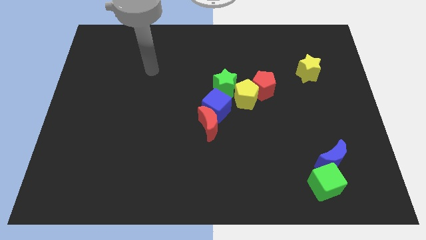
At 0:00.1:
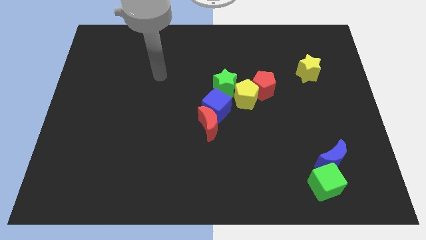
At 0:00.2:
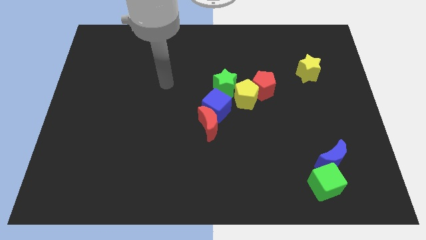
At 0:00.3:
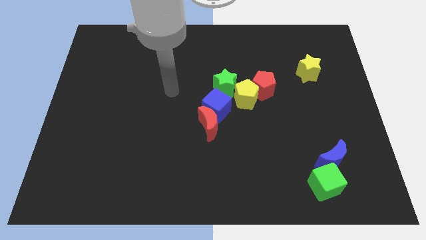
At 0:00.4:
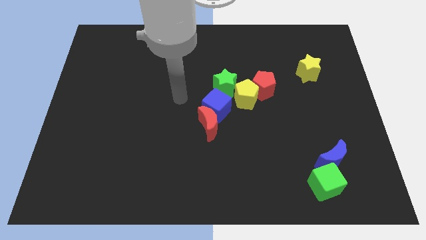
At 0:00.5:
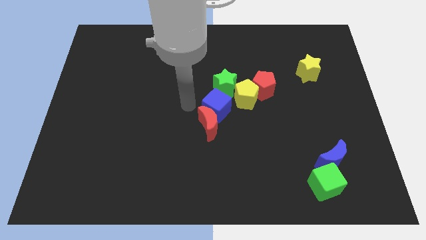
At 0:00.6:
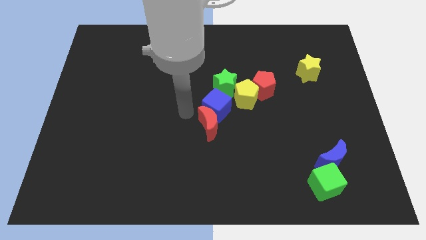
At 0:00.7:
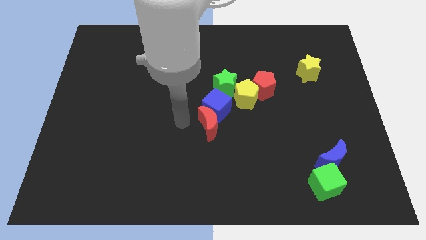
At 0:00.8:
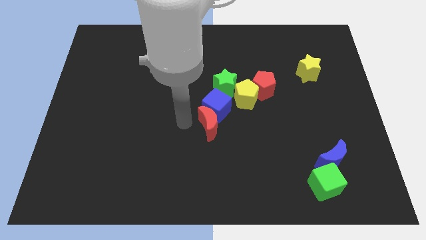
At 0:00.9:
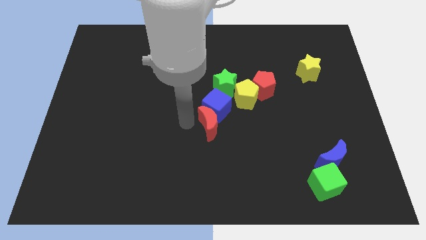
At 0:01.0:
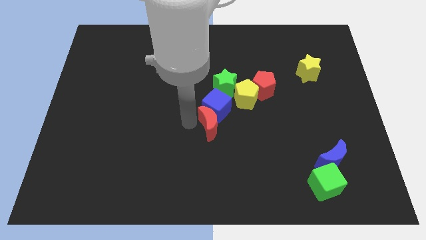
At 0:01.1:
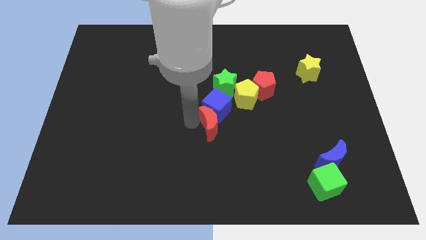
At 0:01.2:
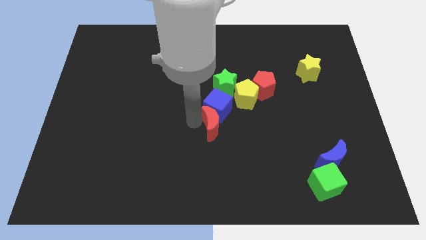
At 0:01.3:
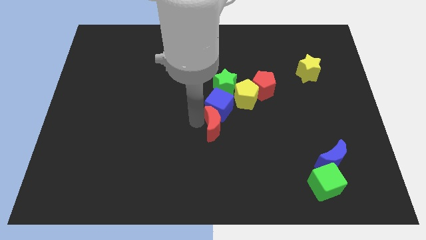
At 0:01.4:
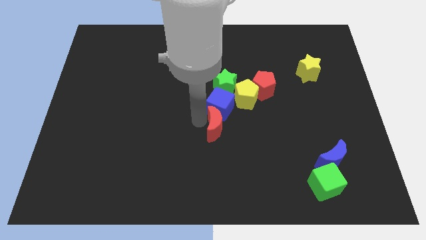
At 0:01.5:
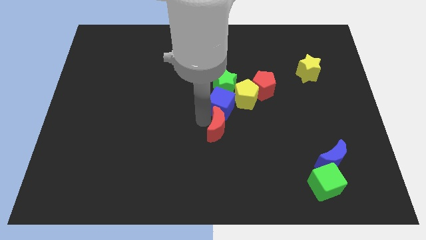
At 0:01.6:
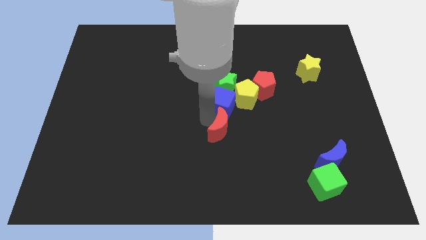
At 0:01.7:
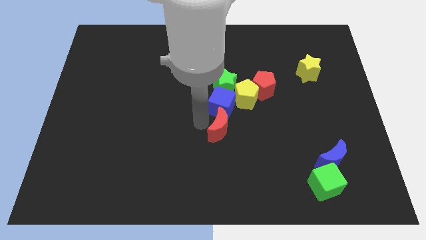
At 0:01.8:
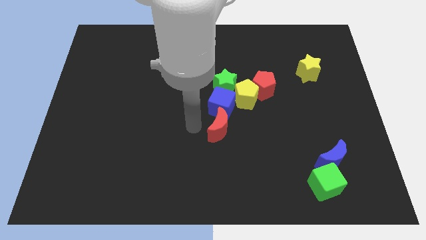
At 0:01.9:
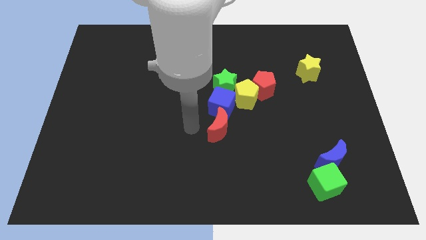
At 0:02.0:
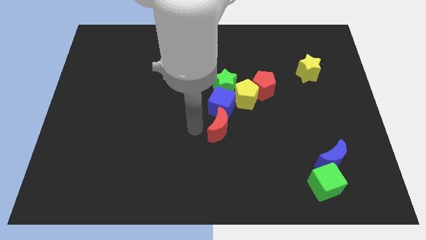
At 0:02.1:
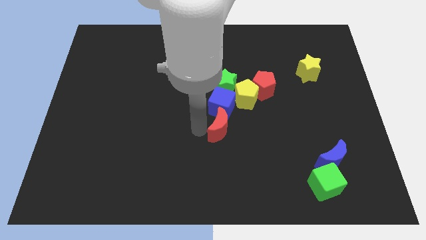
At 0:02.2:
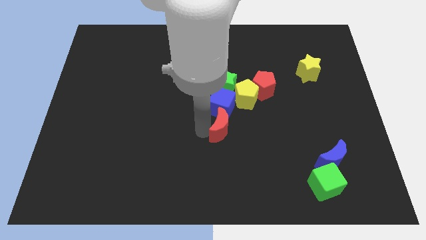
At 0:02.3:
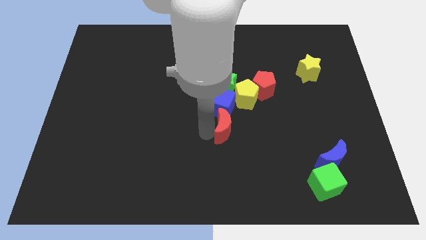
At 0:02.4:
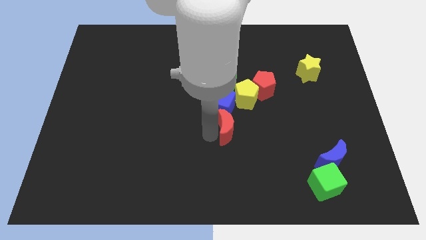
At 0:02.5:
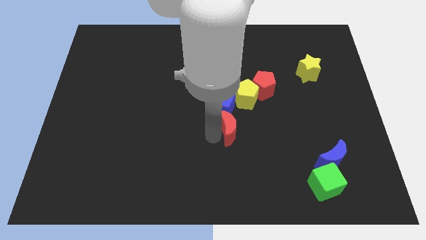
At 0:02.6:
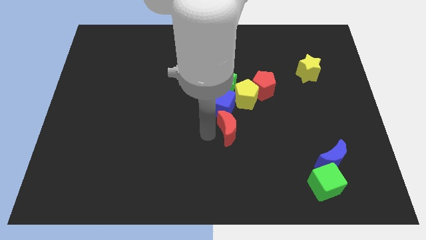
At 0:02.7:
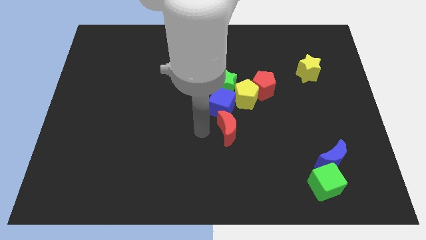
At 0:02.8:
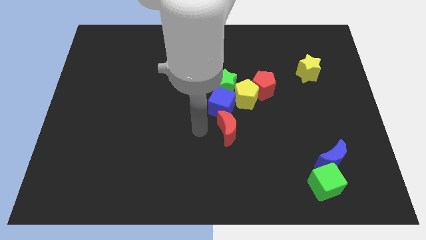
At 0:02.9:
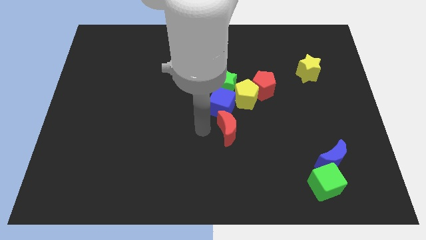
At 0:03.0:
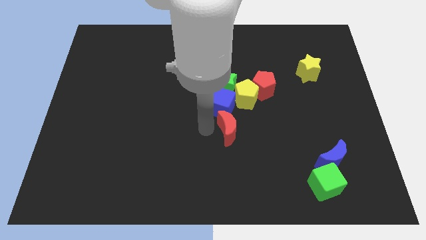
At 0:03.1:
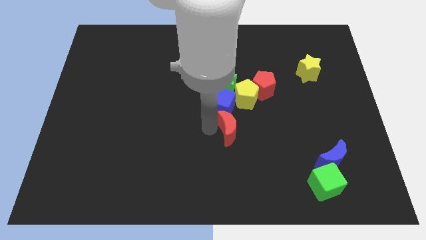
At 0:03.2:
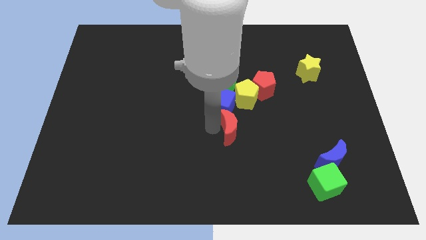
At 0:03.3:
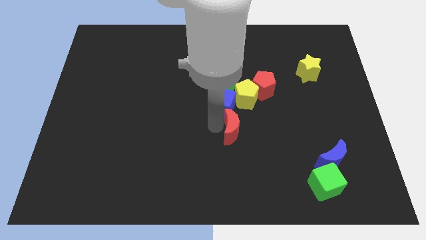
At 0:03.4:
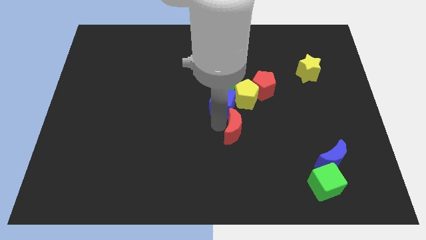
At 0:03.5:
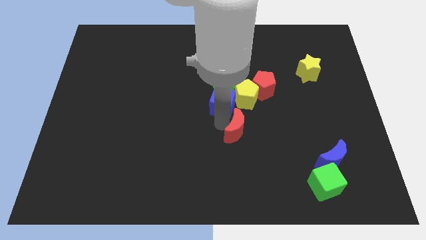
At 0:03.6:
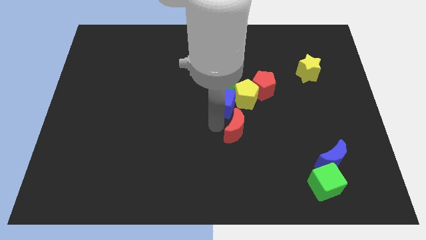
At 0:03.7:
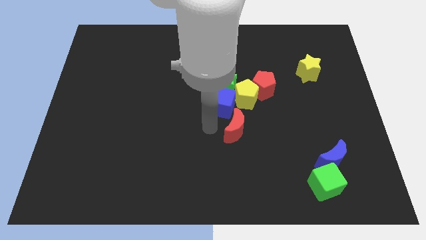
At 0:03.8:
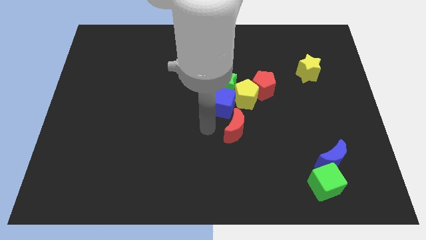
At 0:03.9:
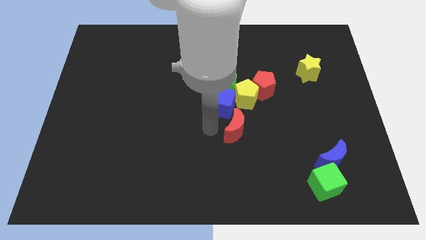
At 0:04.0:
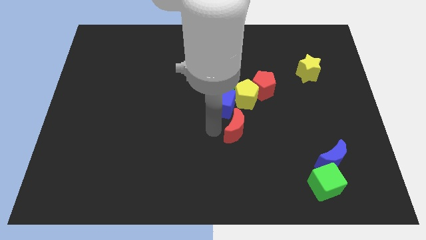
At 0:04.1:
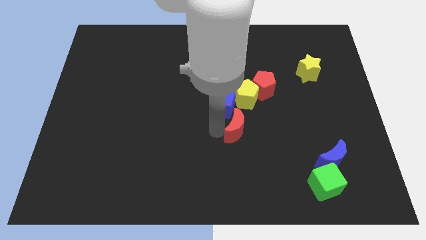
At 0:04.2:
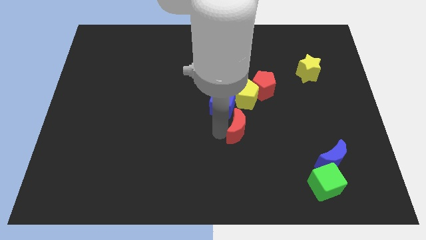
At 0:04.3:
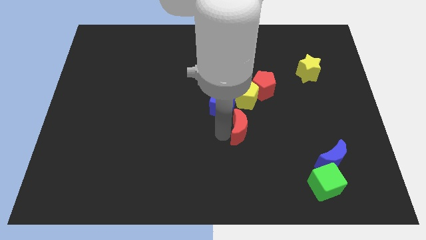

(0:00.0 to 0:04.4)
slide the red moon somewhat right

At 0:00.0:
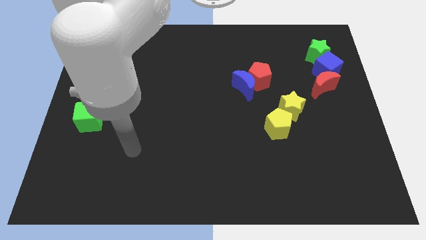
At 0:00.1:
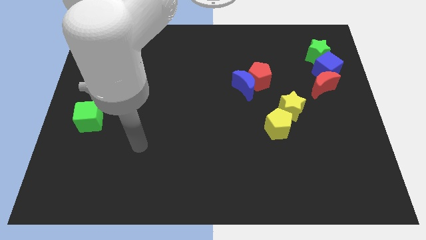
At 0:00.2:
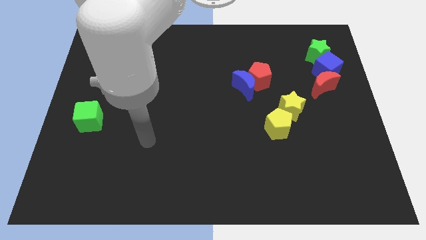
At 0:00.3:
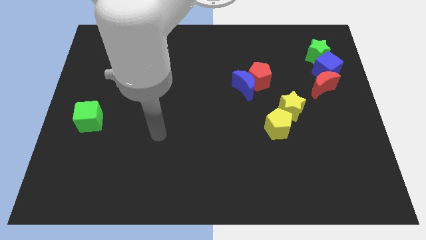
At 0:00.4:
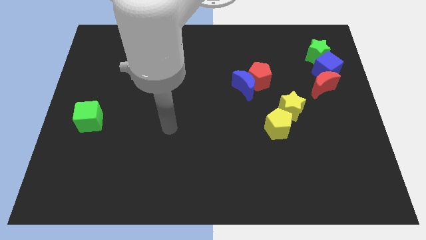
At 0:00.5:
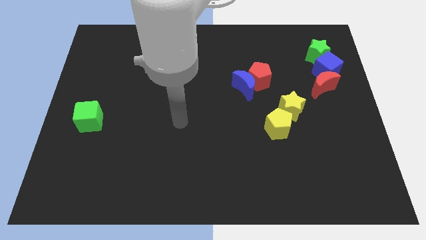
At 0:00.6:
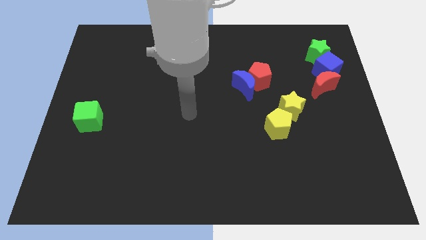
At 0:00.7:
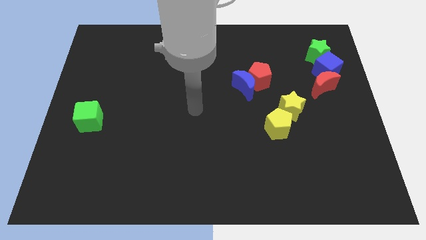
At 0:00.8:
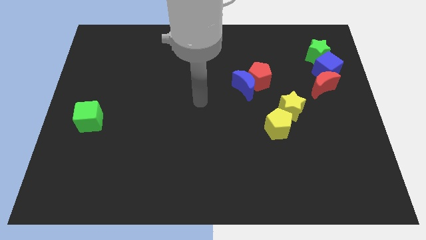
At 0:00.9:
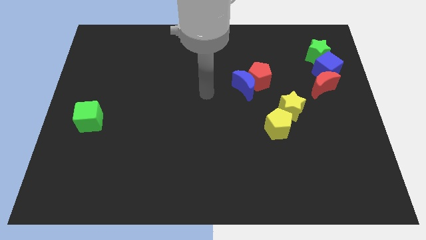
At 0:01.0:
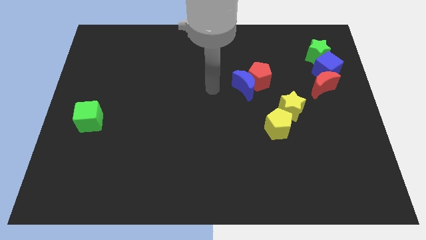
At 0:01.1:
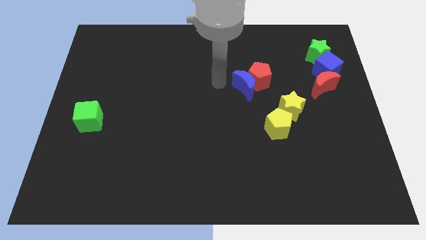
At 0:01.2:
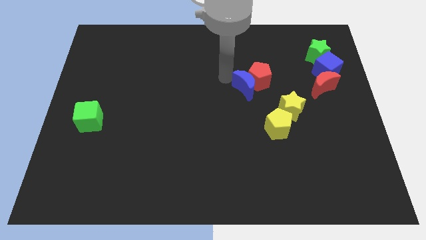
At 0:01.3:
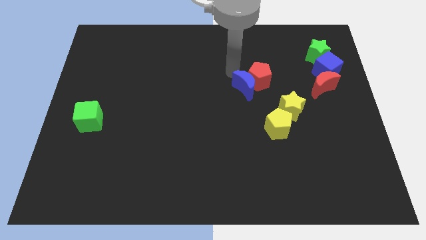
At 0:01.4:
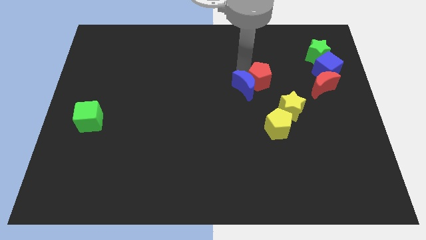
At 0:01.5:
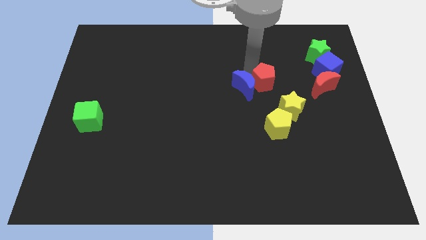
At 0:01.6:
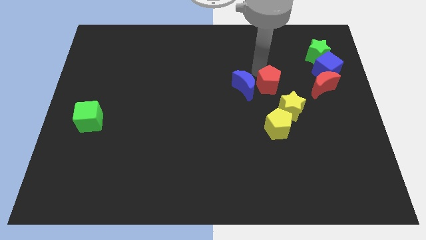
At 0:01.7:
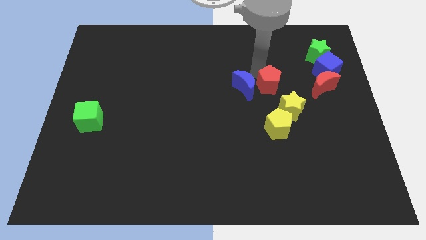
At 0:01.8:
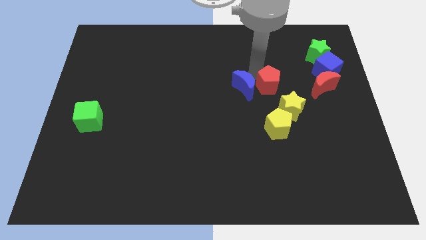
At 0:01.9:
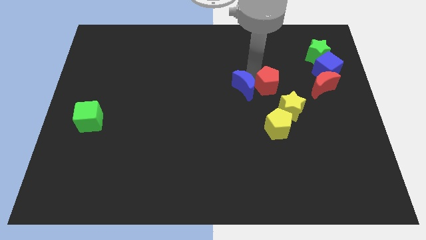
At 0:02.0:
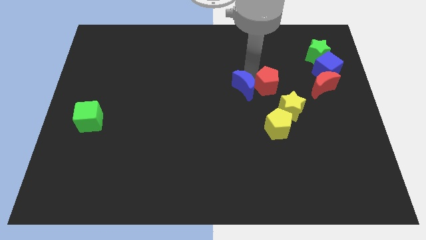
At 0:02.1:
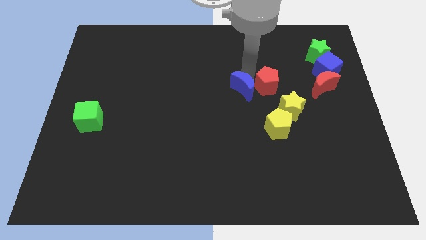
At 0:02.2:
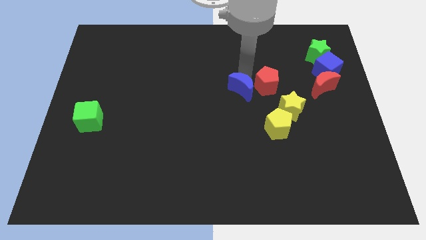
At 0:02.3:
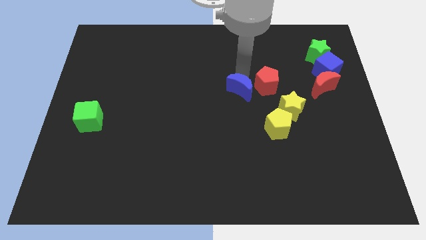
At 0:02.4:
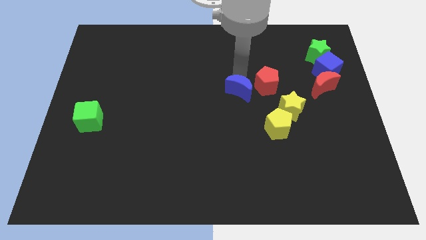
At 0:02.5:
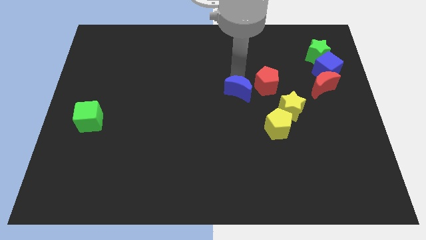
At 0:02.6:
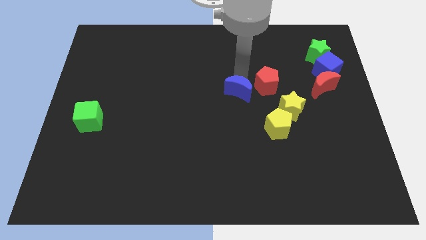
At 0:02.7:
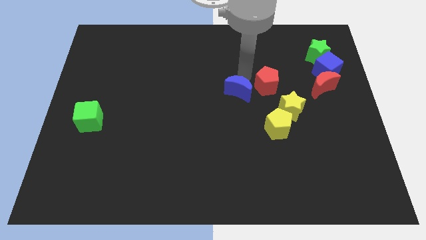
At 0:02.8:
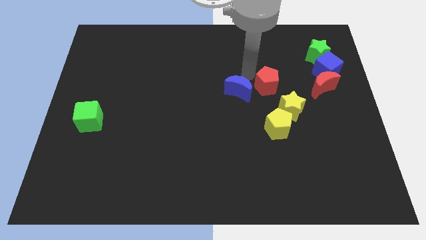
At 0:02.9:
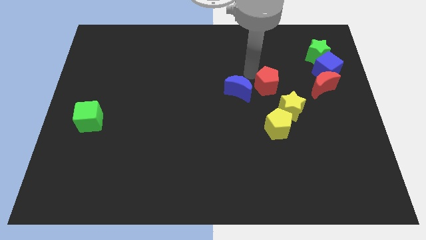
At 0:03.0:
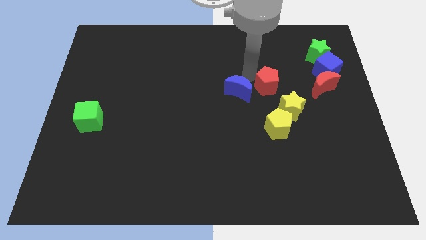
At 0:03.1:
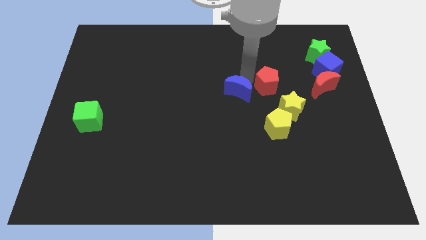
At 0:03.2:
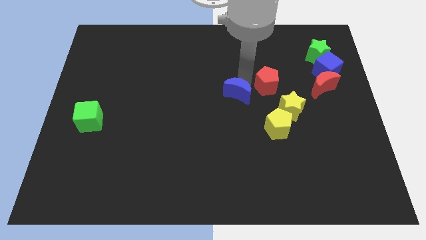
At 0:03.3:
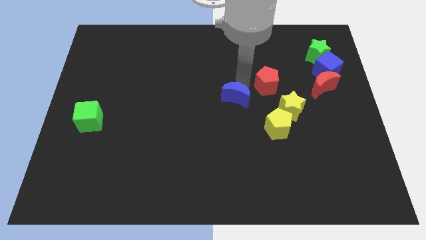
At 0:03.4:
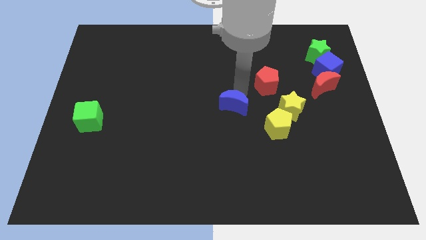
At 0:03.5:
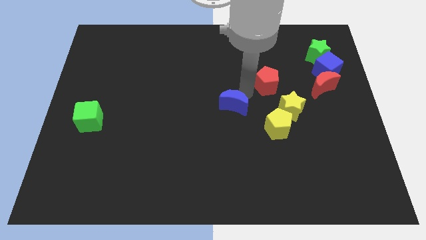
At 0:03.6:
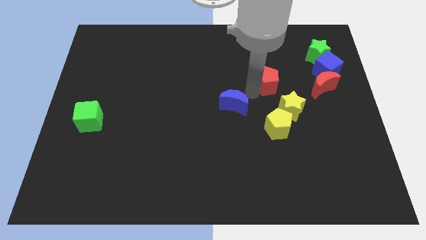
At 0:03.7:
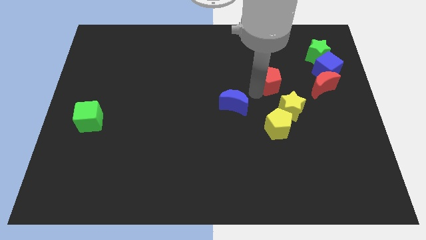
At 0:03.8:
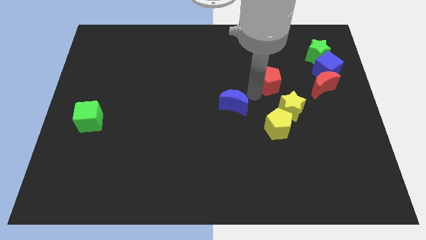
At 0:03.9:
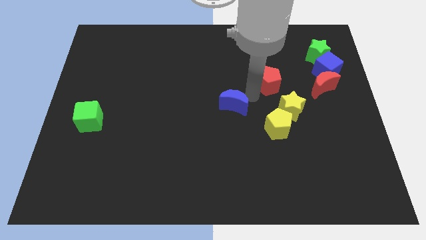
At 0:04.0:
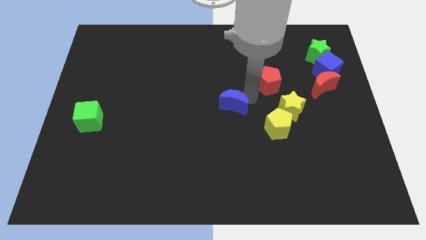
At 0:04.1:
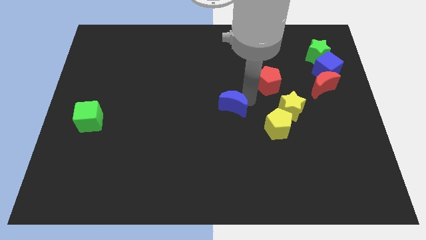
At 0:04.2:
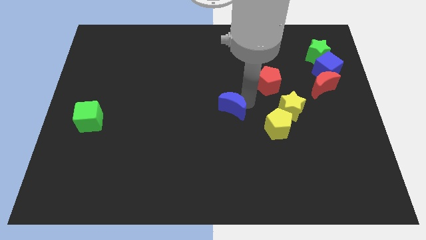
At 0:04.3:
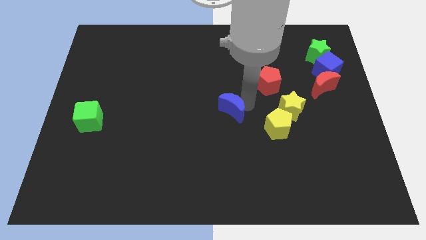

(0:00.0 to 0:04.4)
move the blue moon diagonally down and left somewhat
